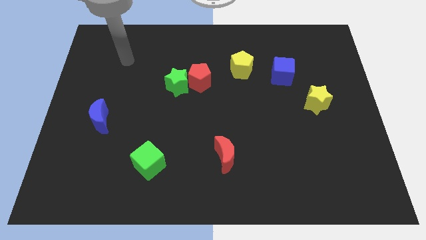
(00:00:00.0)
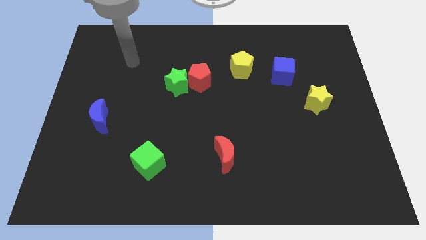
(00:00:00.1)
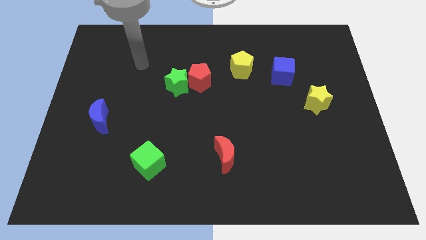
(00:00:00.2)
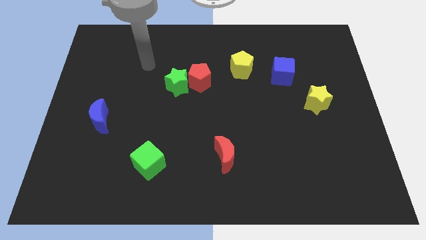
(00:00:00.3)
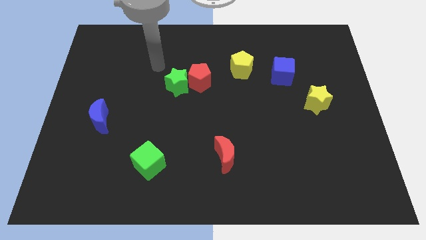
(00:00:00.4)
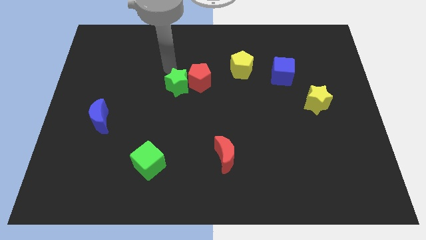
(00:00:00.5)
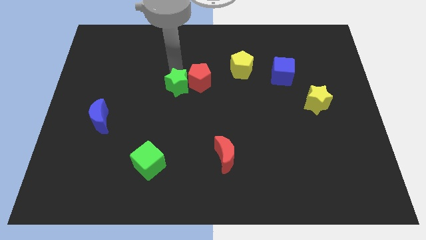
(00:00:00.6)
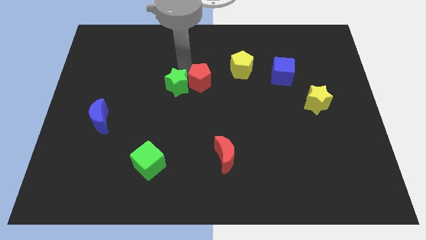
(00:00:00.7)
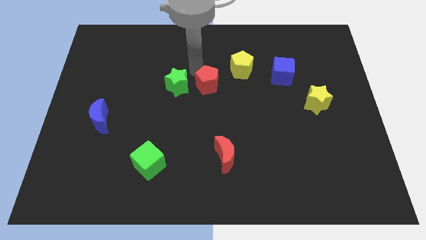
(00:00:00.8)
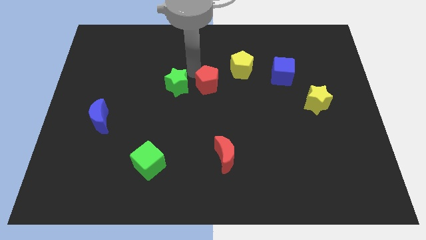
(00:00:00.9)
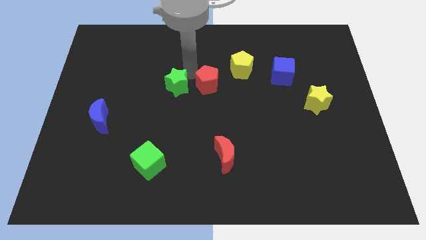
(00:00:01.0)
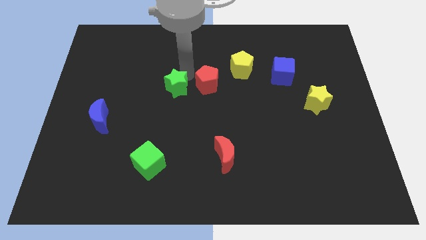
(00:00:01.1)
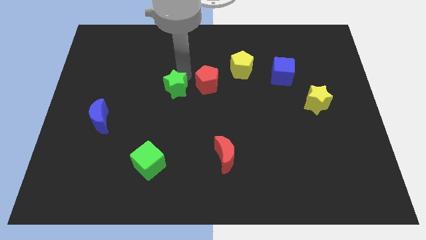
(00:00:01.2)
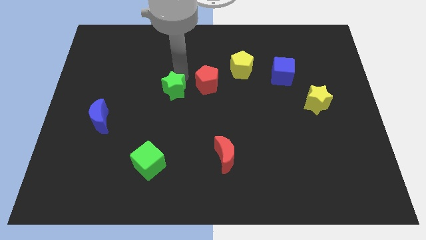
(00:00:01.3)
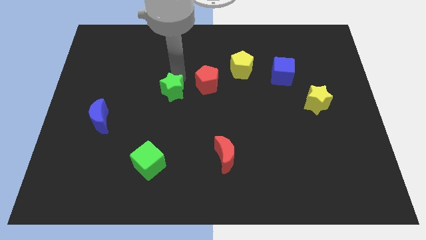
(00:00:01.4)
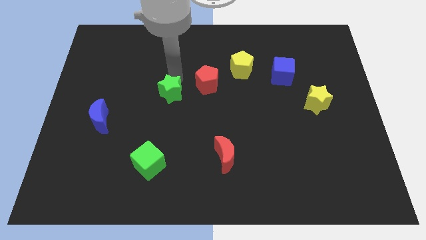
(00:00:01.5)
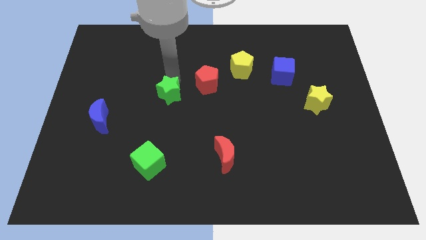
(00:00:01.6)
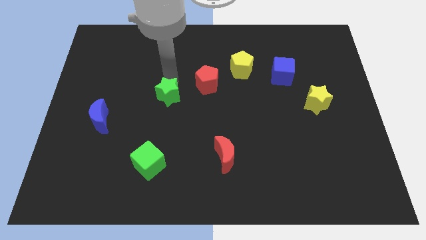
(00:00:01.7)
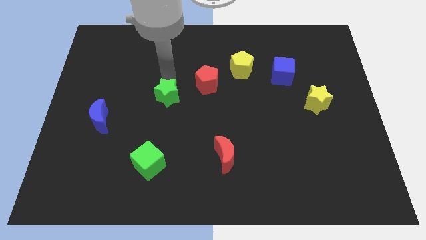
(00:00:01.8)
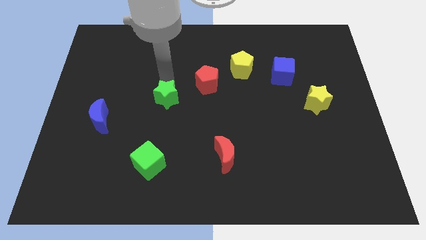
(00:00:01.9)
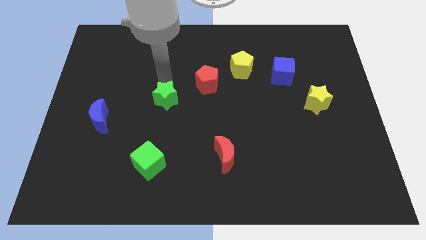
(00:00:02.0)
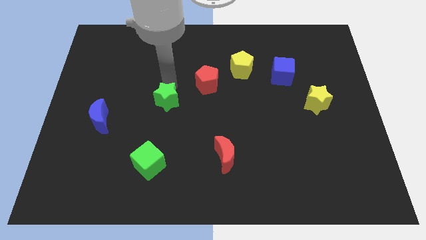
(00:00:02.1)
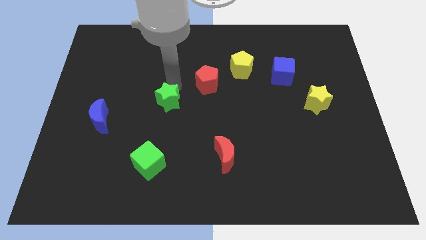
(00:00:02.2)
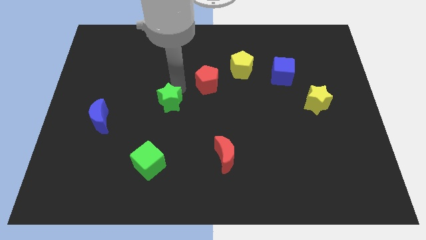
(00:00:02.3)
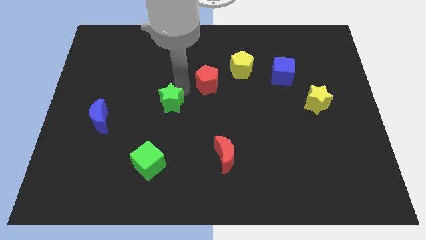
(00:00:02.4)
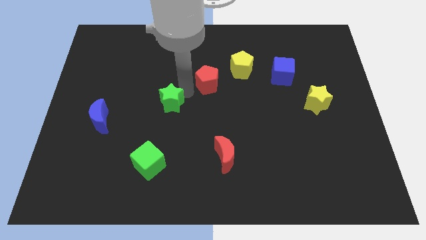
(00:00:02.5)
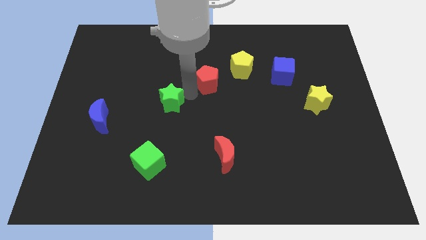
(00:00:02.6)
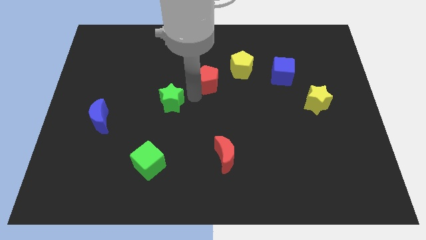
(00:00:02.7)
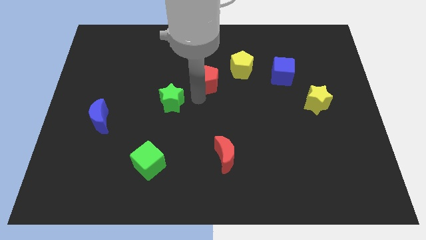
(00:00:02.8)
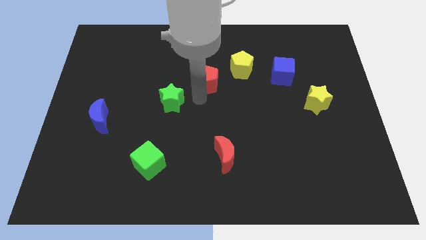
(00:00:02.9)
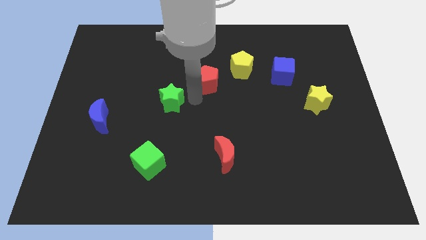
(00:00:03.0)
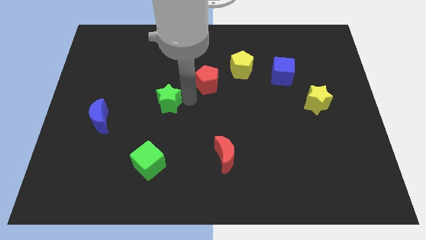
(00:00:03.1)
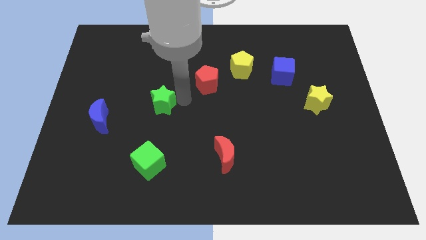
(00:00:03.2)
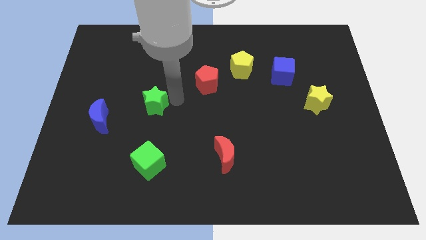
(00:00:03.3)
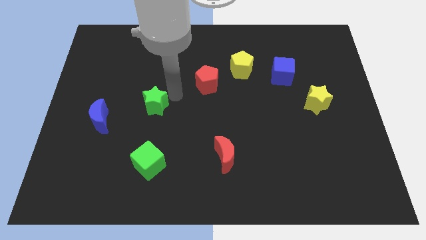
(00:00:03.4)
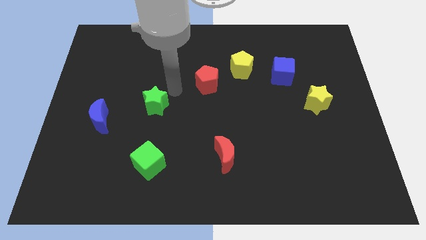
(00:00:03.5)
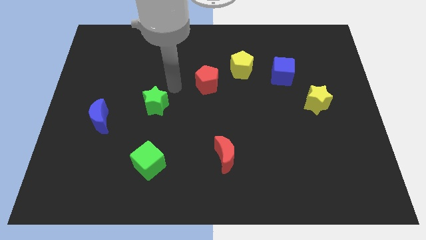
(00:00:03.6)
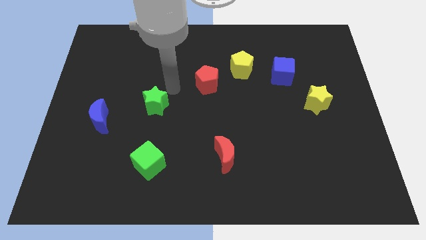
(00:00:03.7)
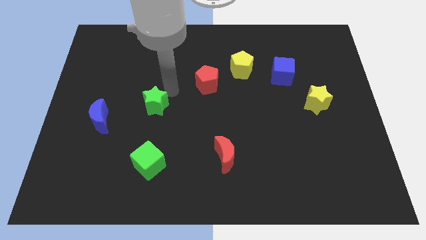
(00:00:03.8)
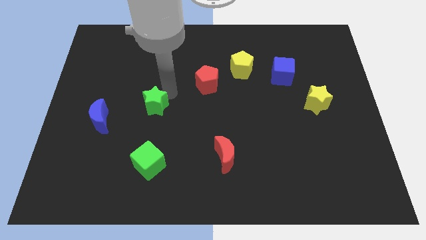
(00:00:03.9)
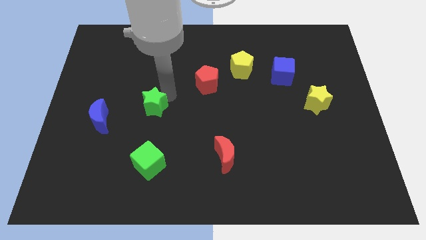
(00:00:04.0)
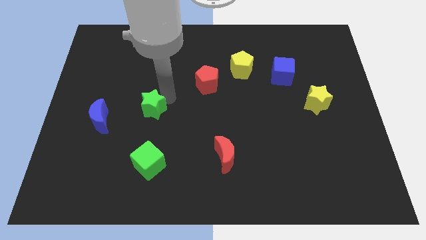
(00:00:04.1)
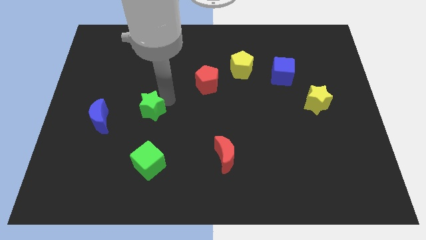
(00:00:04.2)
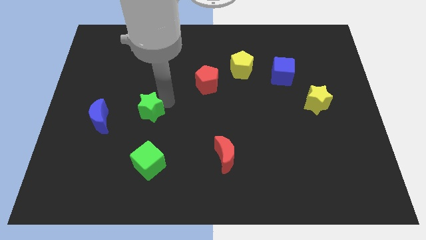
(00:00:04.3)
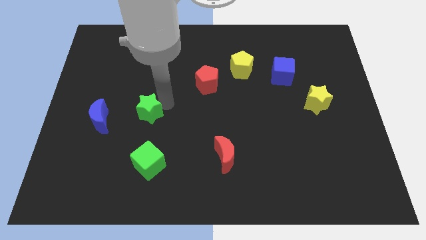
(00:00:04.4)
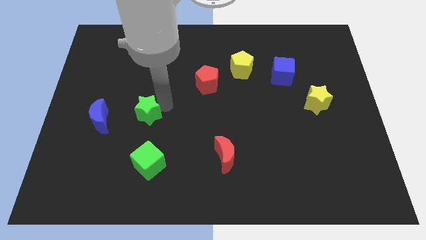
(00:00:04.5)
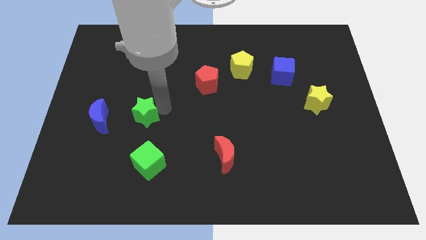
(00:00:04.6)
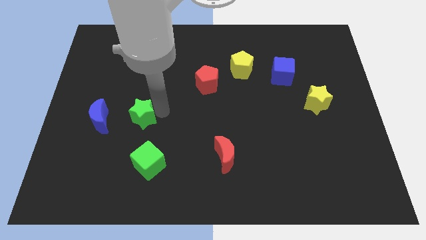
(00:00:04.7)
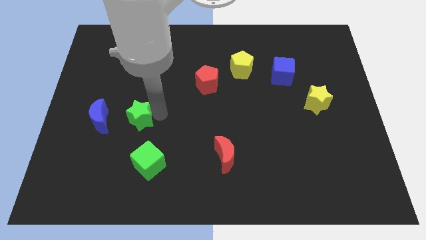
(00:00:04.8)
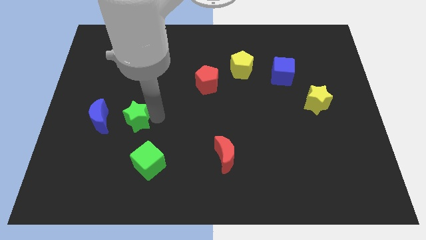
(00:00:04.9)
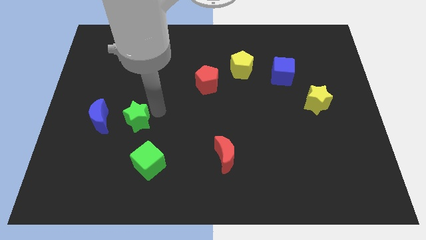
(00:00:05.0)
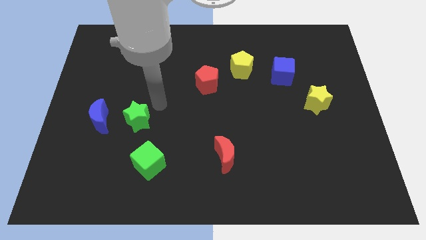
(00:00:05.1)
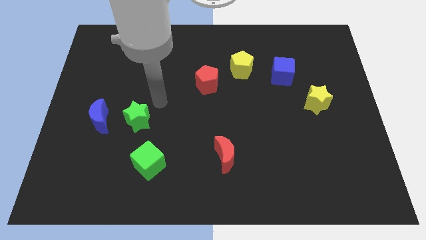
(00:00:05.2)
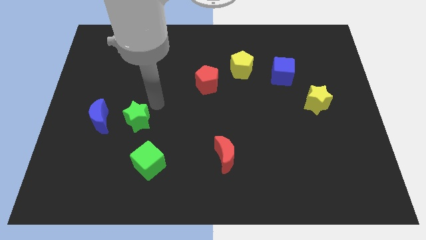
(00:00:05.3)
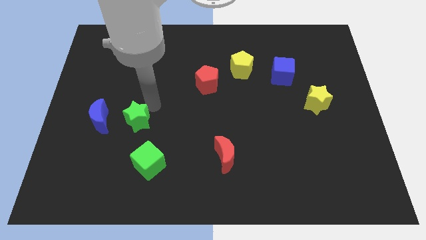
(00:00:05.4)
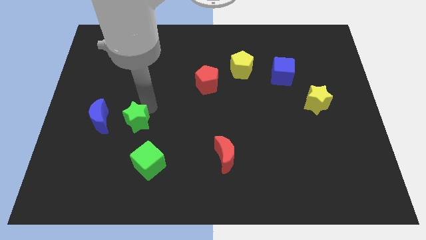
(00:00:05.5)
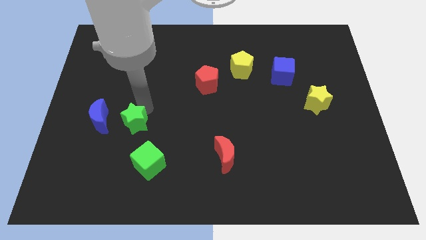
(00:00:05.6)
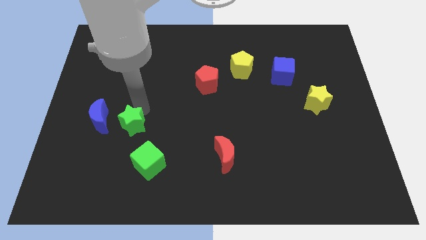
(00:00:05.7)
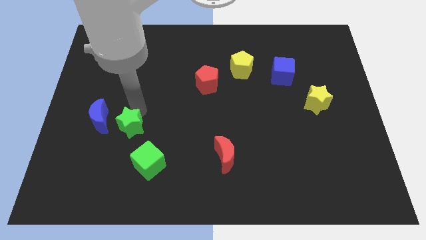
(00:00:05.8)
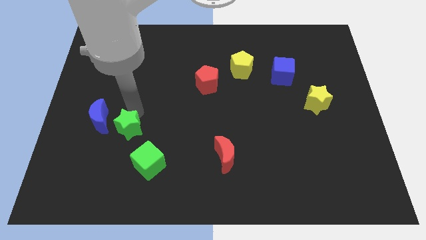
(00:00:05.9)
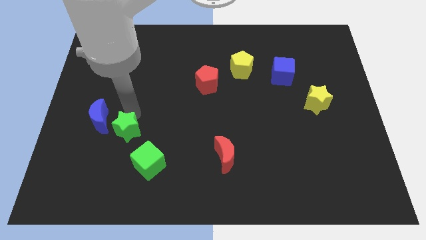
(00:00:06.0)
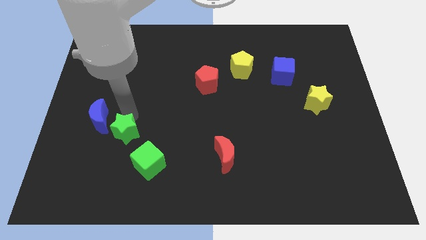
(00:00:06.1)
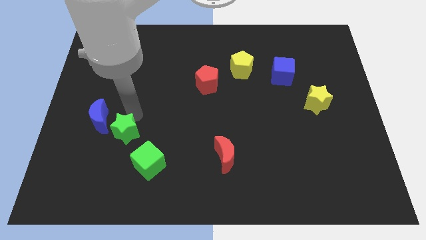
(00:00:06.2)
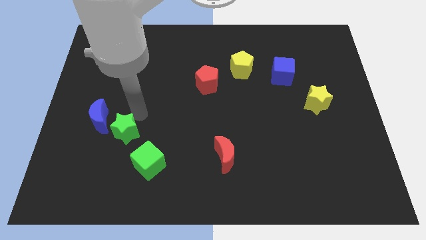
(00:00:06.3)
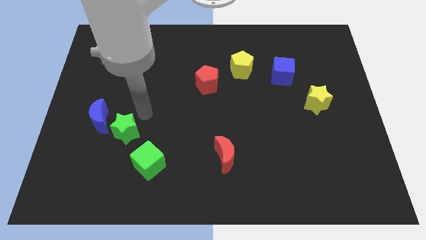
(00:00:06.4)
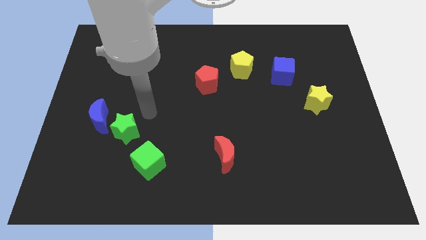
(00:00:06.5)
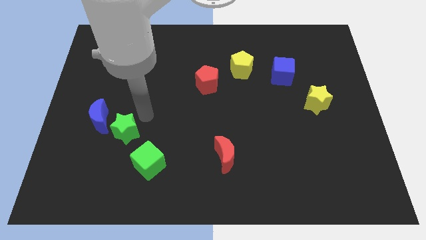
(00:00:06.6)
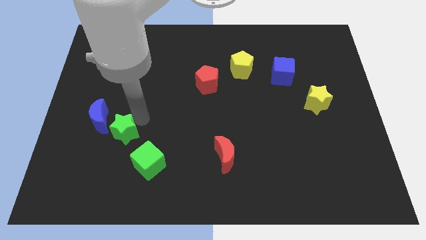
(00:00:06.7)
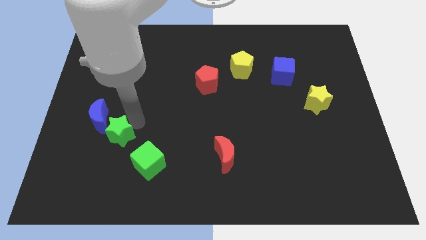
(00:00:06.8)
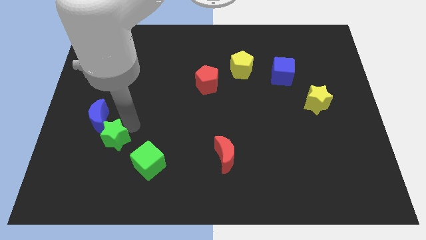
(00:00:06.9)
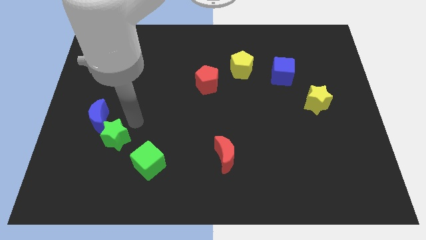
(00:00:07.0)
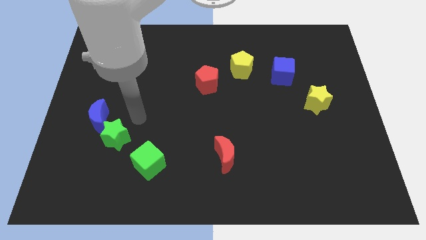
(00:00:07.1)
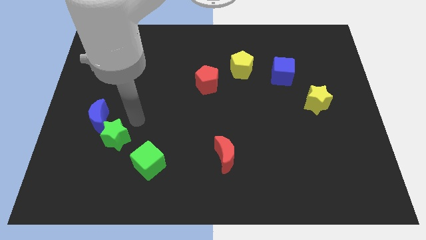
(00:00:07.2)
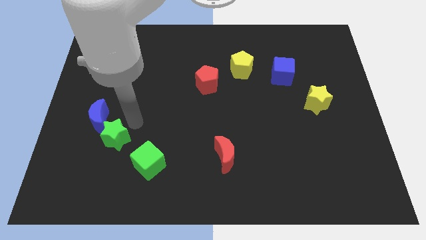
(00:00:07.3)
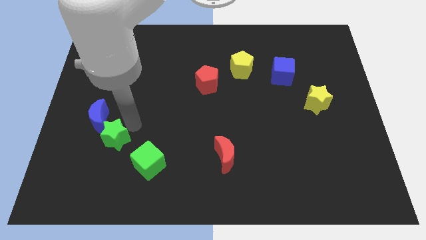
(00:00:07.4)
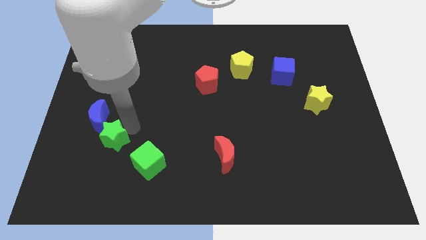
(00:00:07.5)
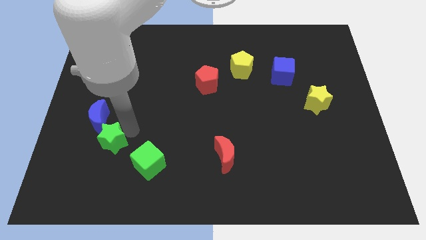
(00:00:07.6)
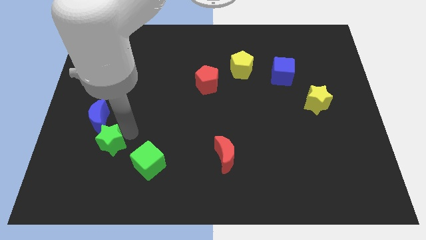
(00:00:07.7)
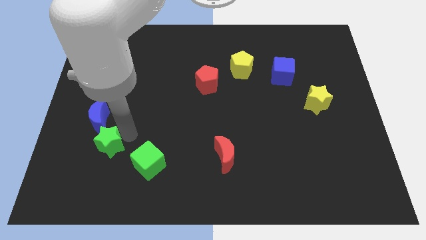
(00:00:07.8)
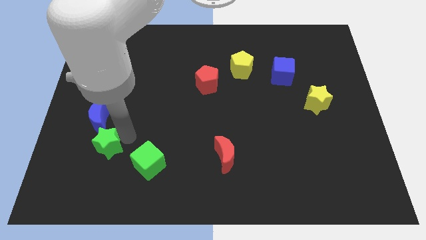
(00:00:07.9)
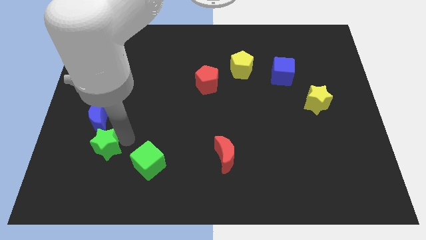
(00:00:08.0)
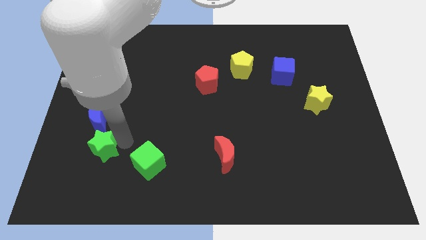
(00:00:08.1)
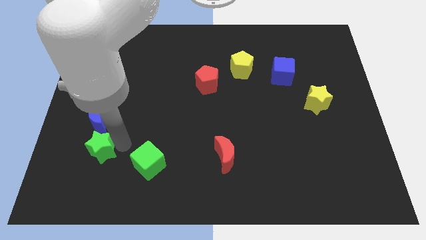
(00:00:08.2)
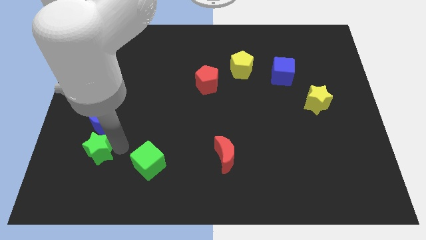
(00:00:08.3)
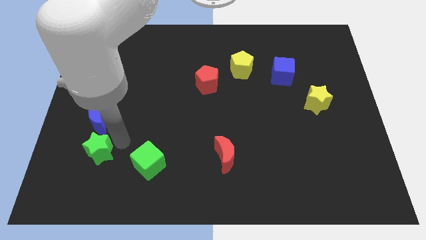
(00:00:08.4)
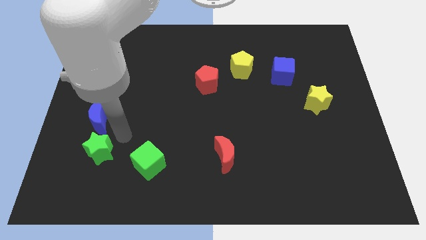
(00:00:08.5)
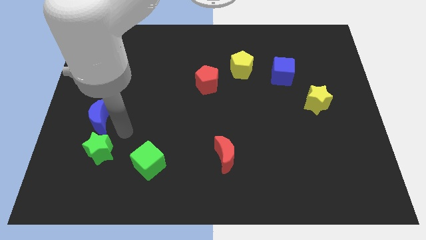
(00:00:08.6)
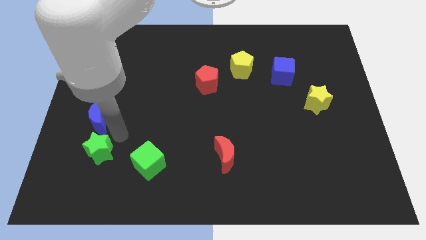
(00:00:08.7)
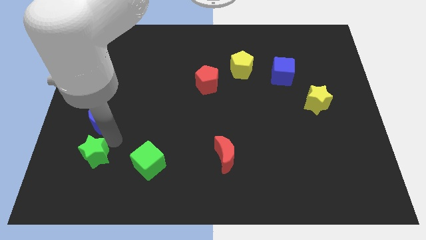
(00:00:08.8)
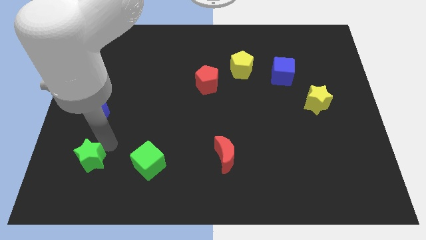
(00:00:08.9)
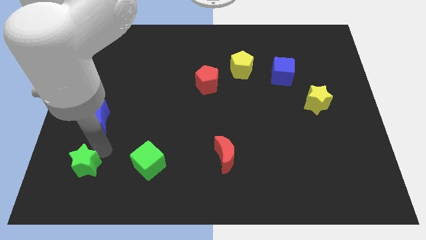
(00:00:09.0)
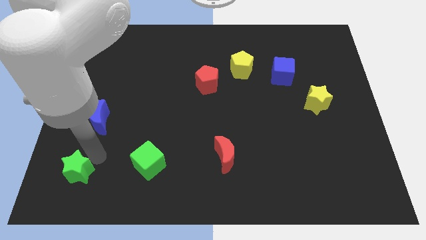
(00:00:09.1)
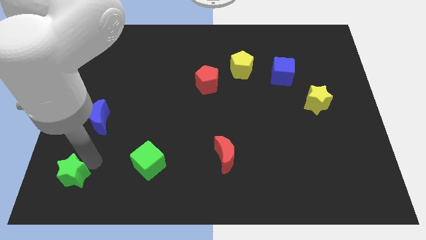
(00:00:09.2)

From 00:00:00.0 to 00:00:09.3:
push the green star to the lower left corner
